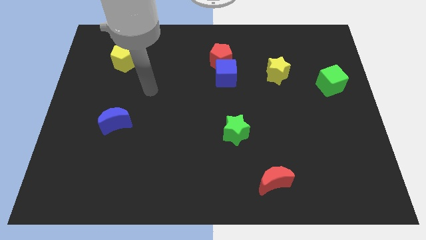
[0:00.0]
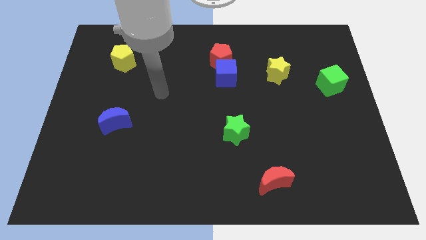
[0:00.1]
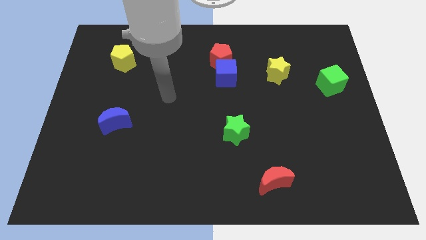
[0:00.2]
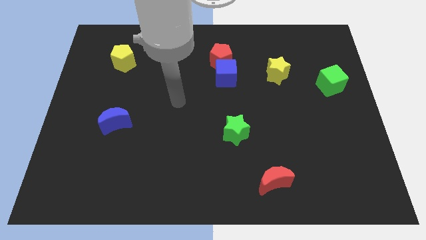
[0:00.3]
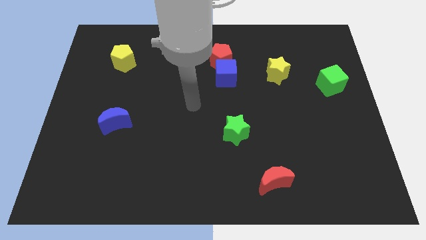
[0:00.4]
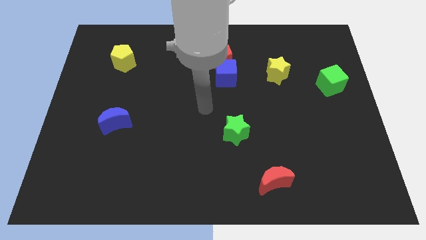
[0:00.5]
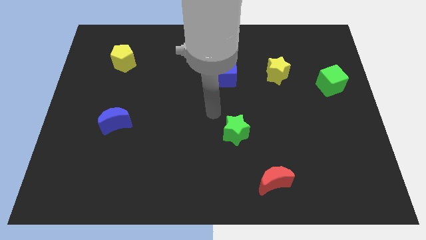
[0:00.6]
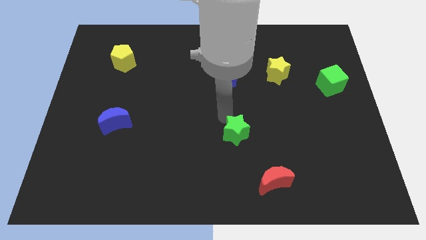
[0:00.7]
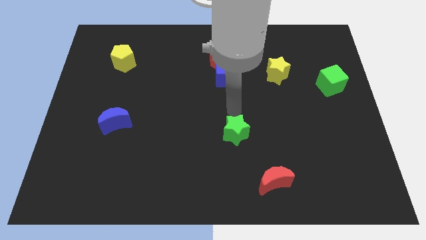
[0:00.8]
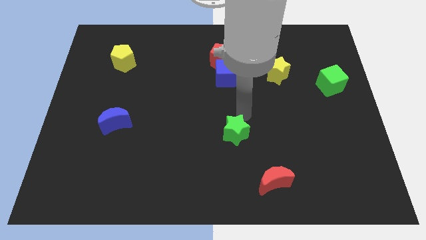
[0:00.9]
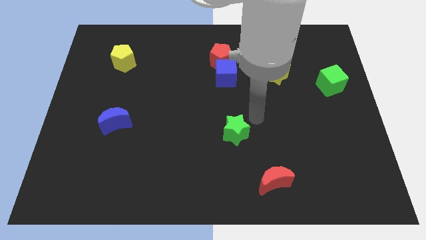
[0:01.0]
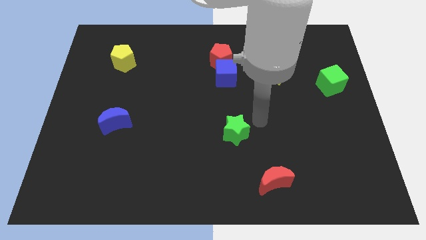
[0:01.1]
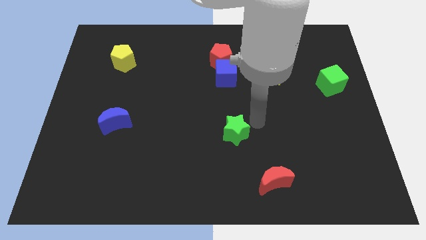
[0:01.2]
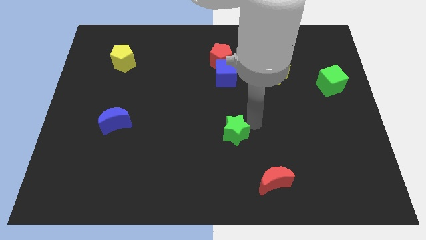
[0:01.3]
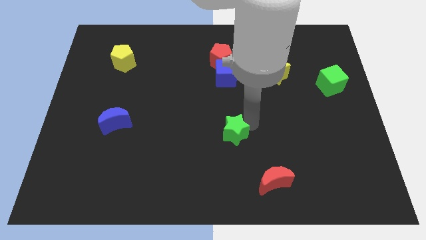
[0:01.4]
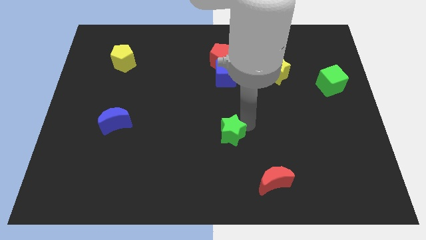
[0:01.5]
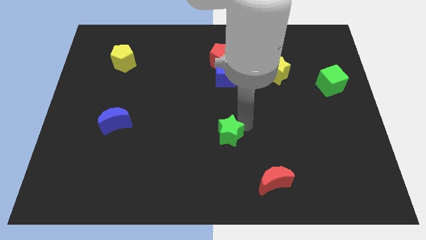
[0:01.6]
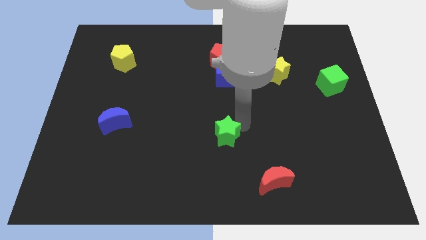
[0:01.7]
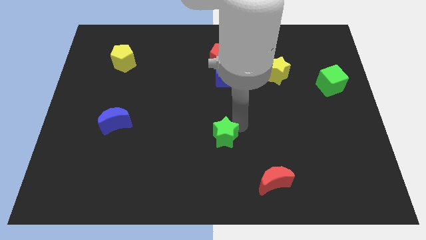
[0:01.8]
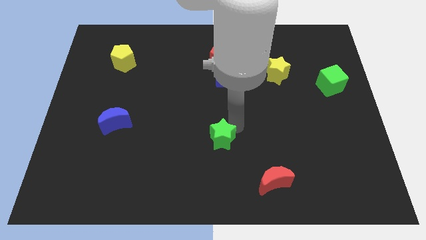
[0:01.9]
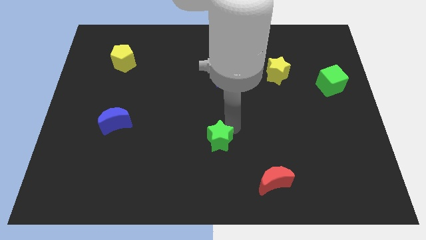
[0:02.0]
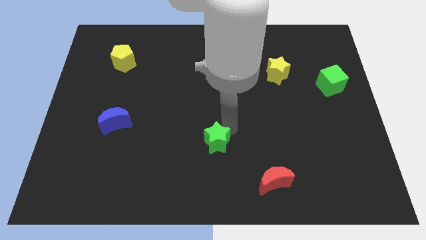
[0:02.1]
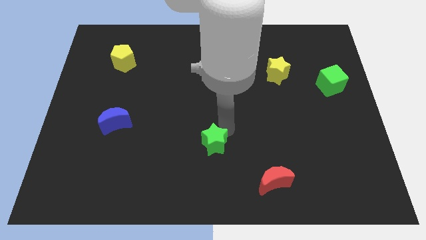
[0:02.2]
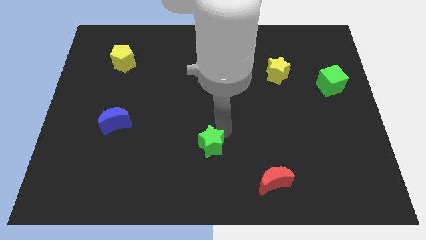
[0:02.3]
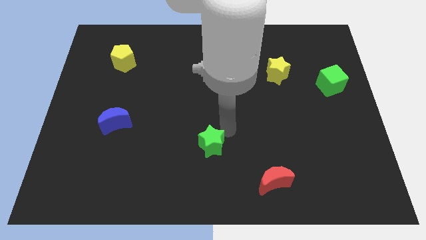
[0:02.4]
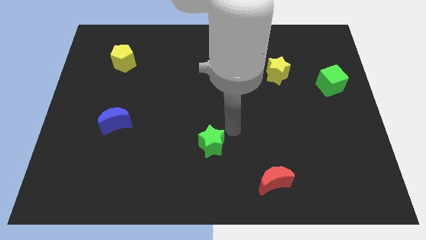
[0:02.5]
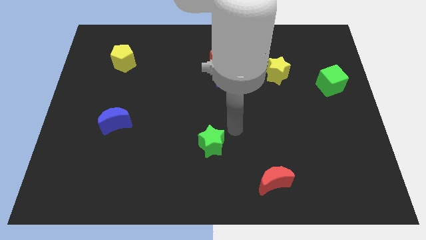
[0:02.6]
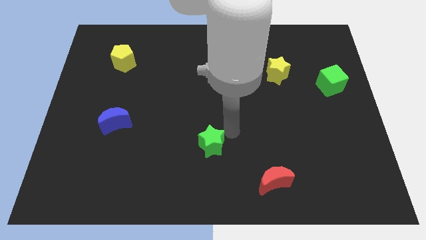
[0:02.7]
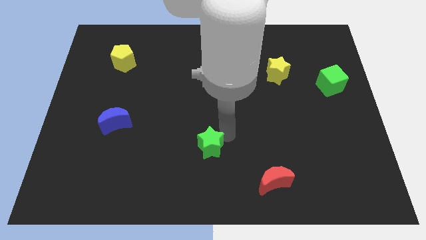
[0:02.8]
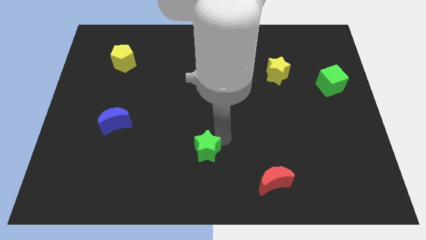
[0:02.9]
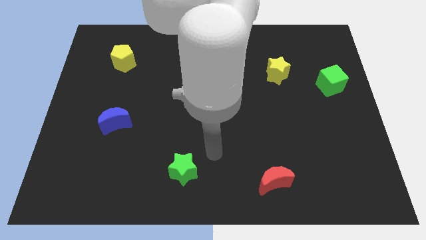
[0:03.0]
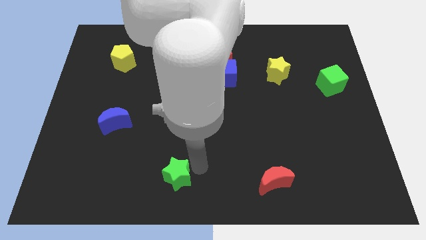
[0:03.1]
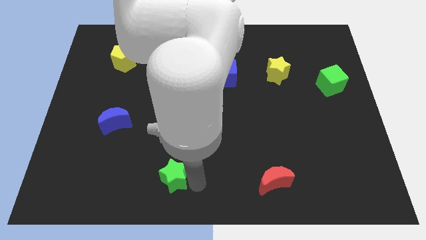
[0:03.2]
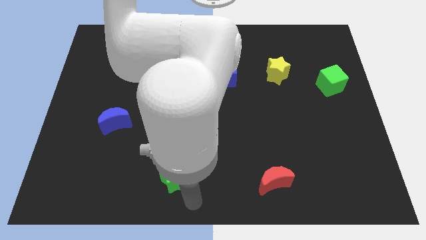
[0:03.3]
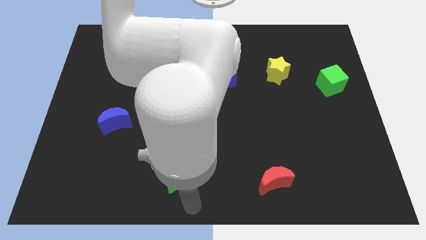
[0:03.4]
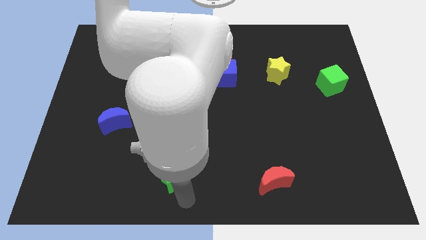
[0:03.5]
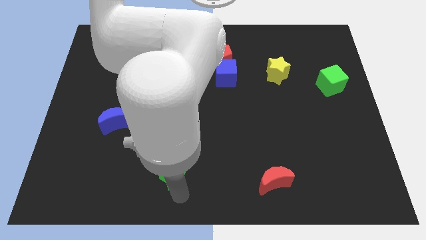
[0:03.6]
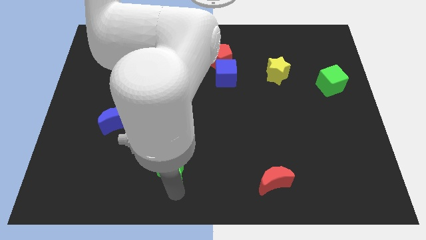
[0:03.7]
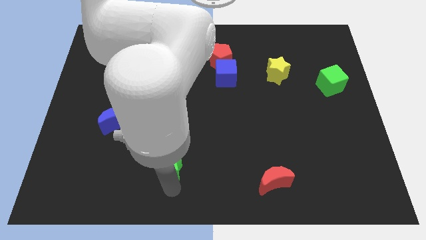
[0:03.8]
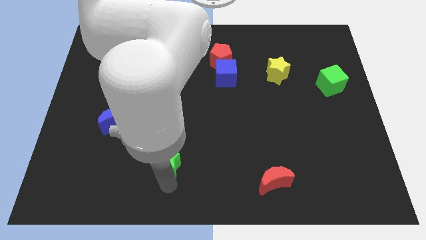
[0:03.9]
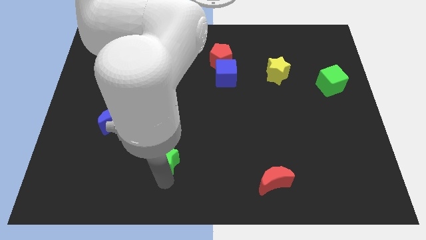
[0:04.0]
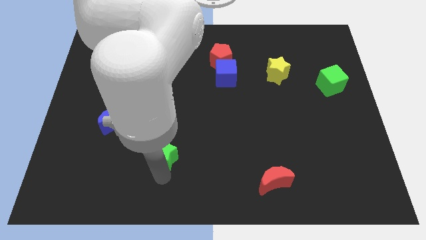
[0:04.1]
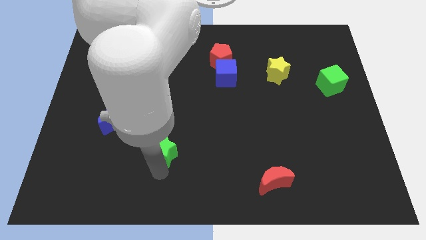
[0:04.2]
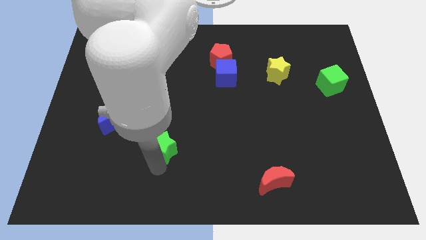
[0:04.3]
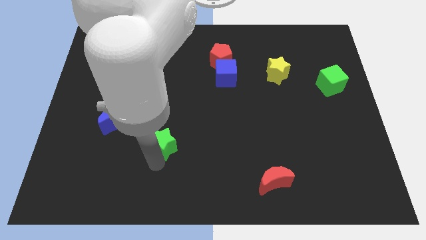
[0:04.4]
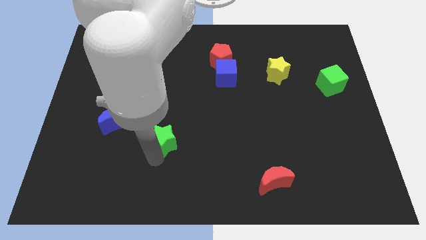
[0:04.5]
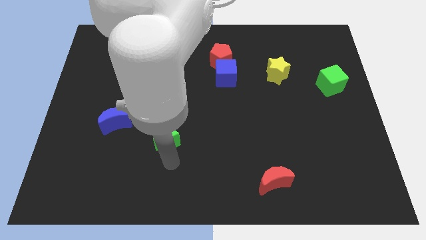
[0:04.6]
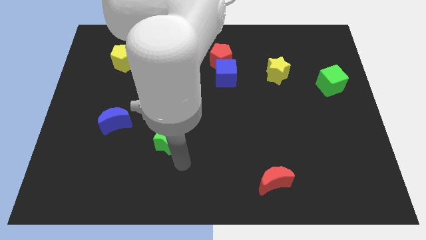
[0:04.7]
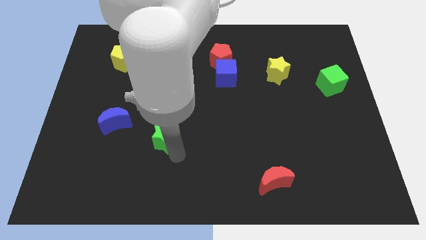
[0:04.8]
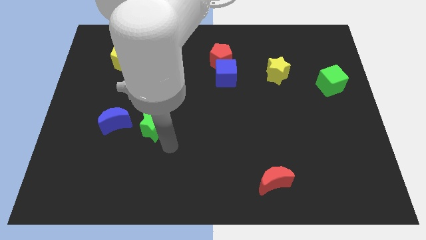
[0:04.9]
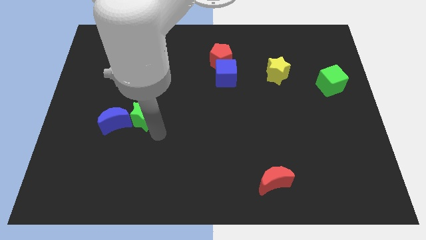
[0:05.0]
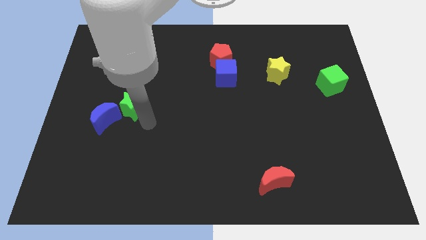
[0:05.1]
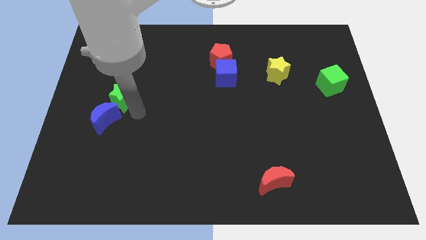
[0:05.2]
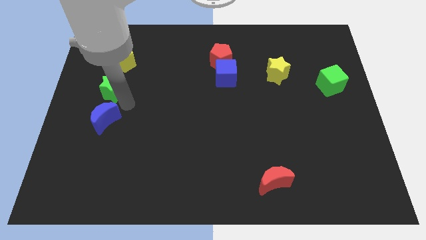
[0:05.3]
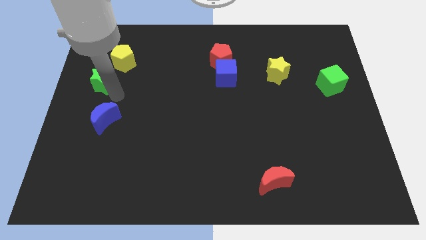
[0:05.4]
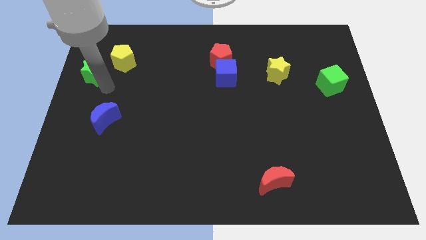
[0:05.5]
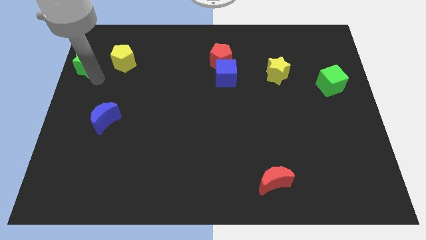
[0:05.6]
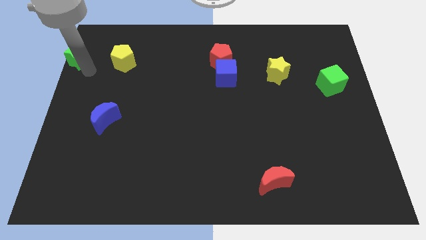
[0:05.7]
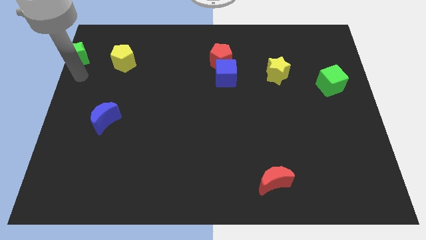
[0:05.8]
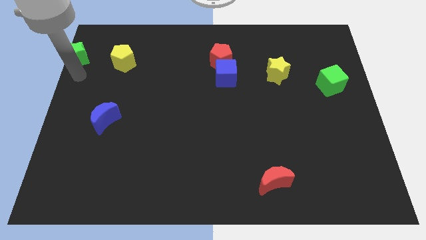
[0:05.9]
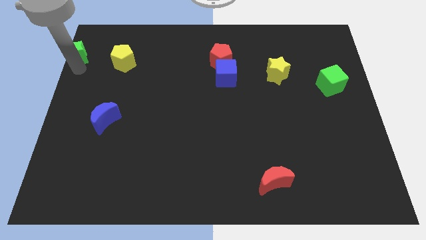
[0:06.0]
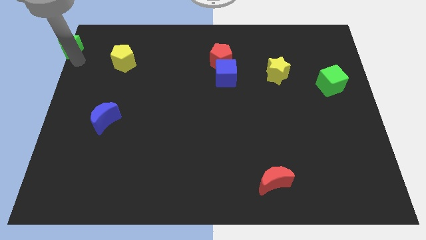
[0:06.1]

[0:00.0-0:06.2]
slide the green star to the top left corner

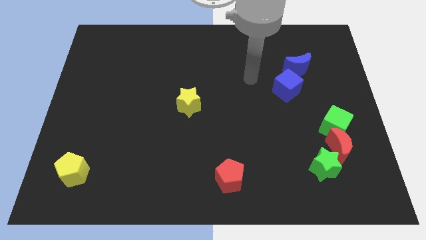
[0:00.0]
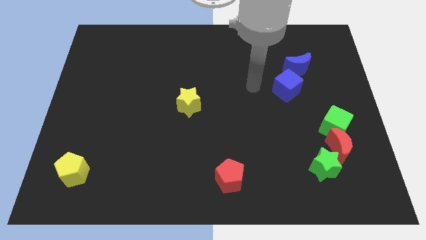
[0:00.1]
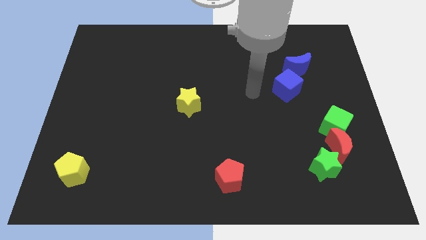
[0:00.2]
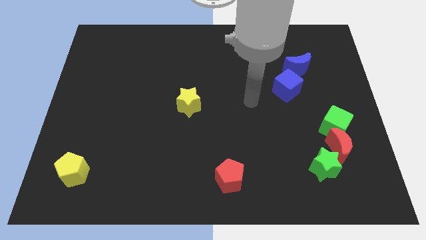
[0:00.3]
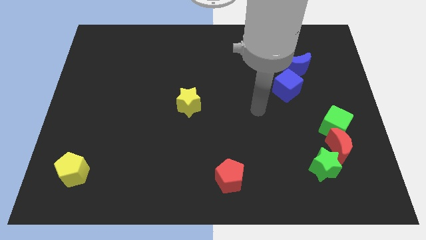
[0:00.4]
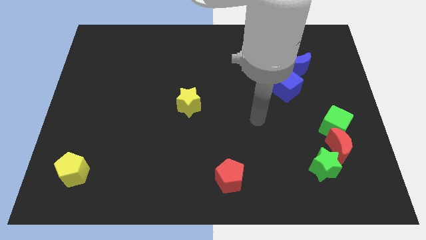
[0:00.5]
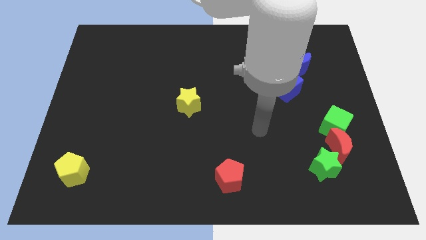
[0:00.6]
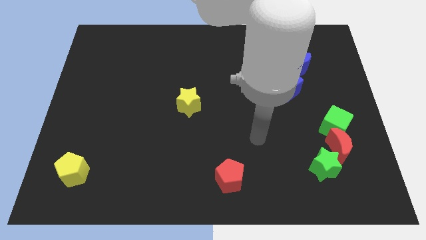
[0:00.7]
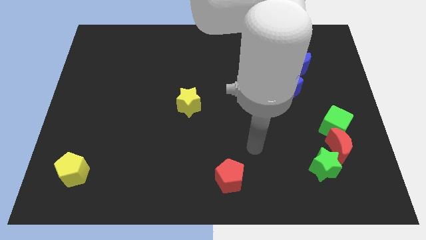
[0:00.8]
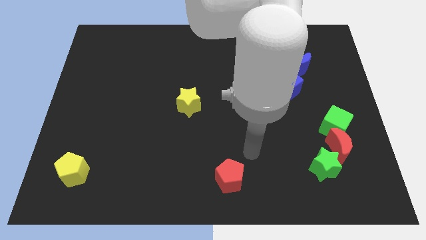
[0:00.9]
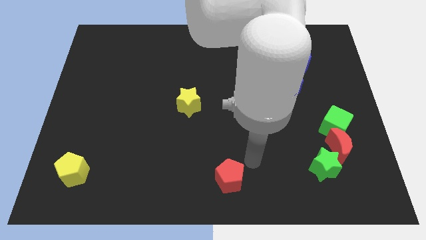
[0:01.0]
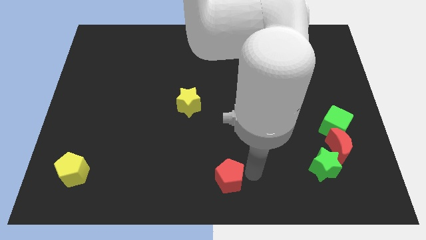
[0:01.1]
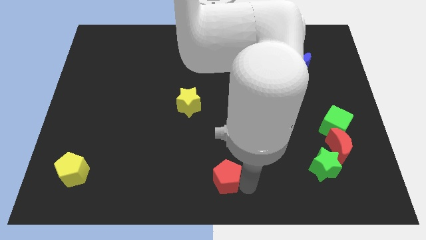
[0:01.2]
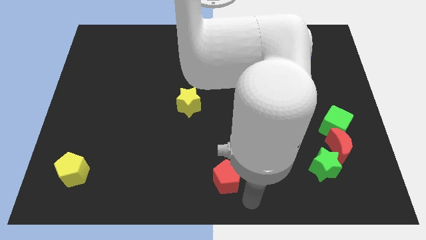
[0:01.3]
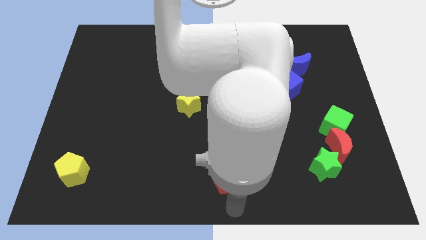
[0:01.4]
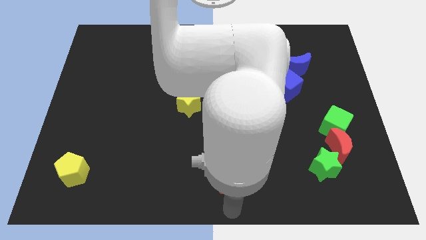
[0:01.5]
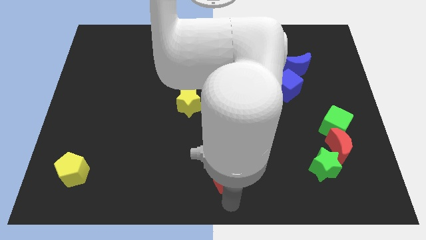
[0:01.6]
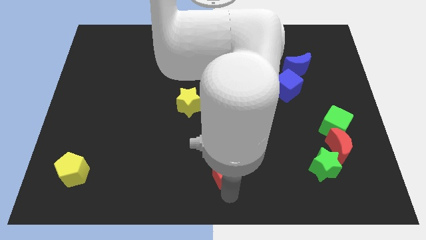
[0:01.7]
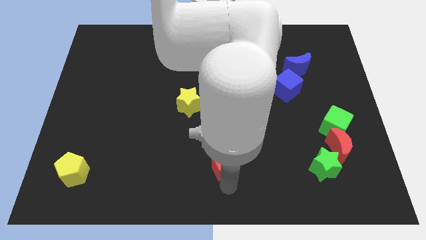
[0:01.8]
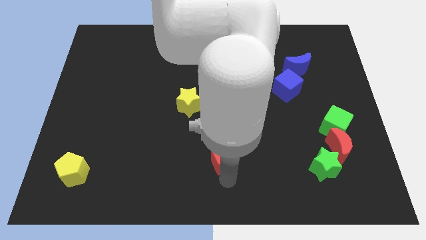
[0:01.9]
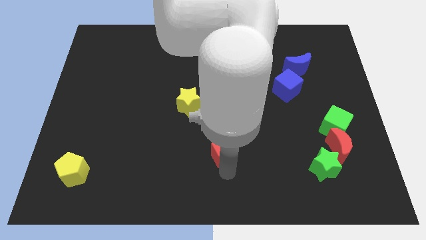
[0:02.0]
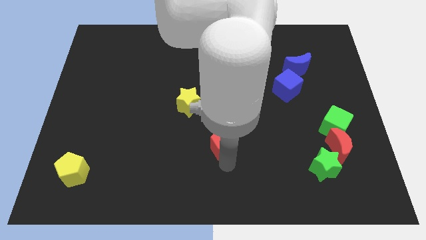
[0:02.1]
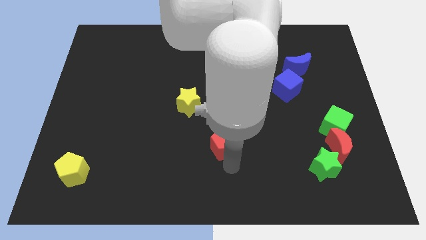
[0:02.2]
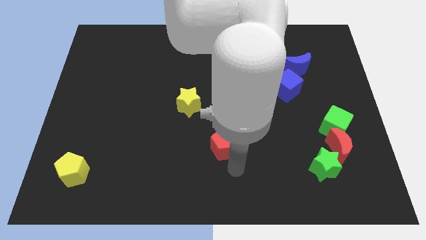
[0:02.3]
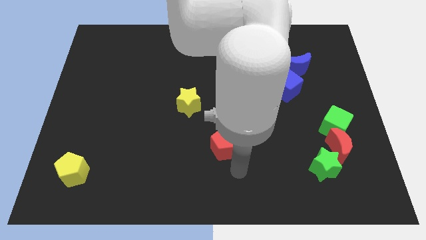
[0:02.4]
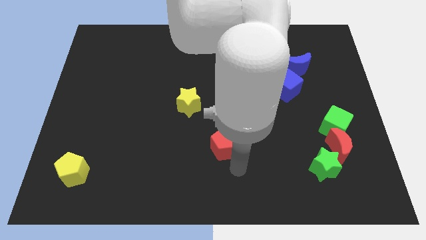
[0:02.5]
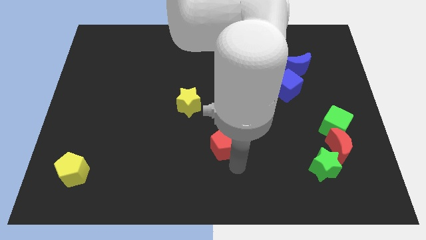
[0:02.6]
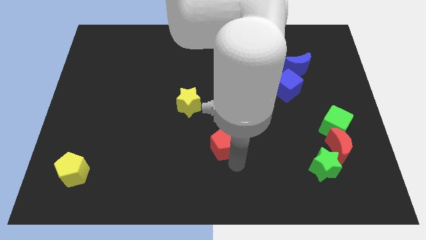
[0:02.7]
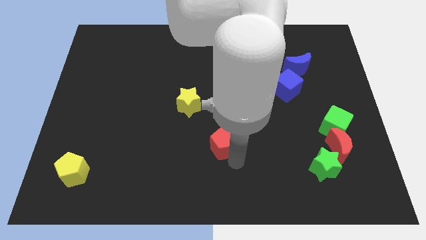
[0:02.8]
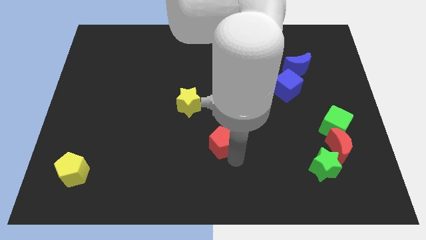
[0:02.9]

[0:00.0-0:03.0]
move the red pentagon to the center
